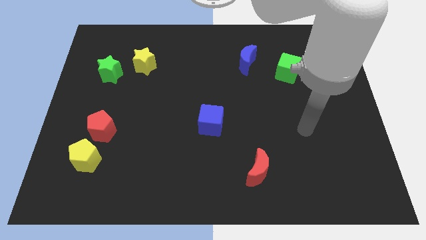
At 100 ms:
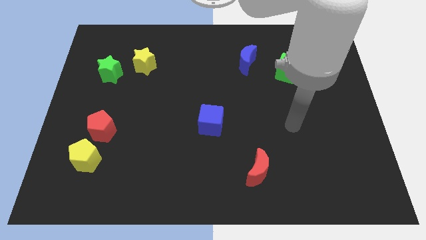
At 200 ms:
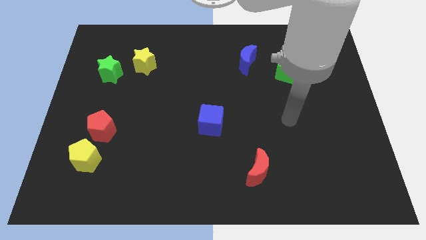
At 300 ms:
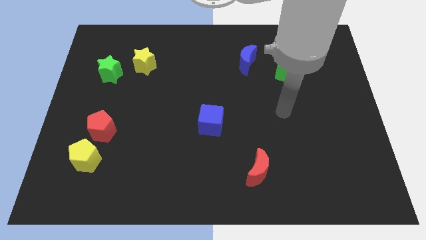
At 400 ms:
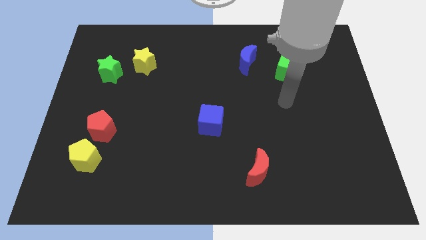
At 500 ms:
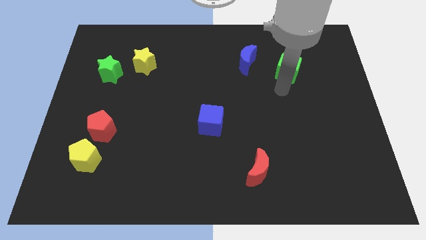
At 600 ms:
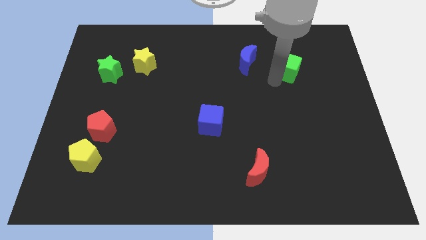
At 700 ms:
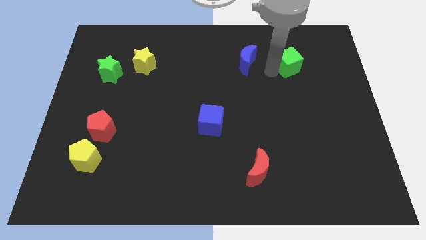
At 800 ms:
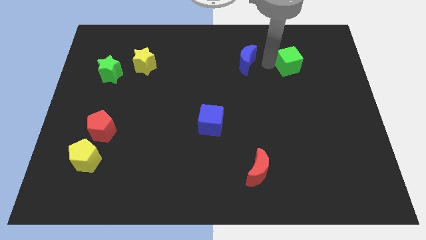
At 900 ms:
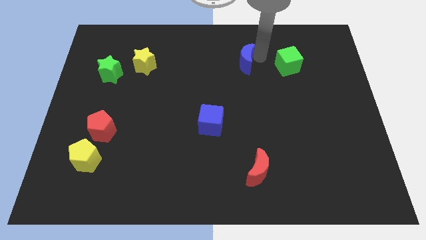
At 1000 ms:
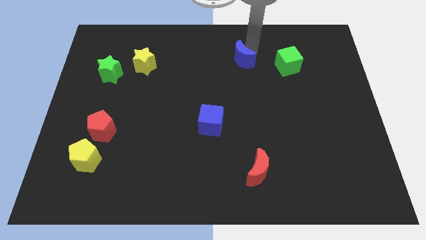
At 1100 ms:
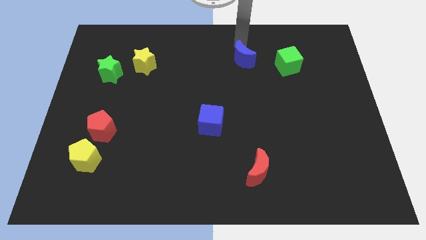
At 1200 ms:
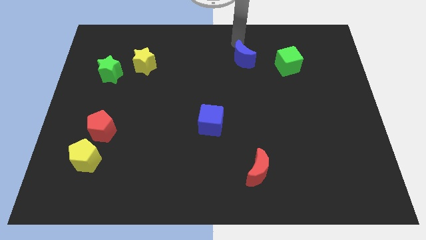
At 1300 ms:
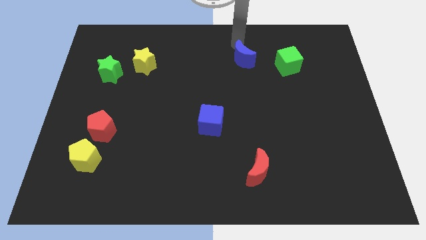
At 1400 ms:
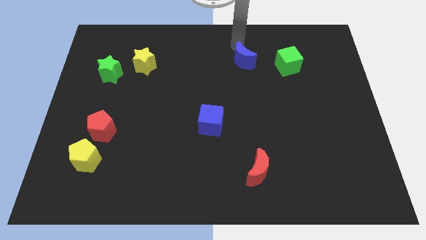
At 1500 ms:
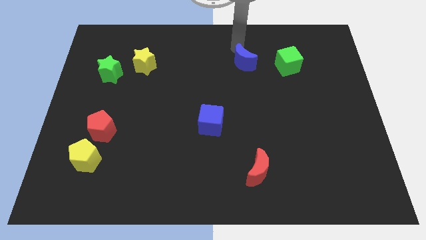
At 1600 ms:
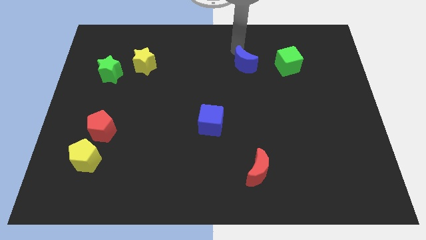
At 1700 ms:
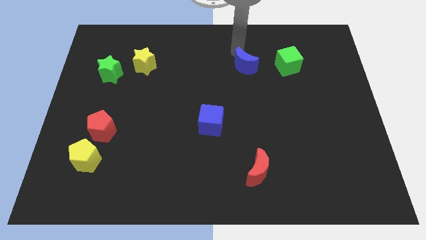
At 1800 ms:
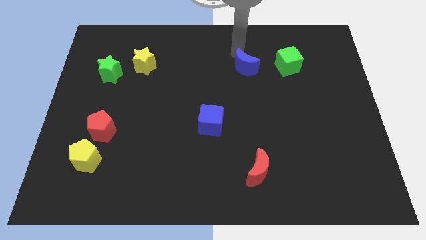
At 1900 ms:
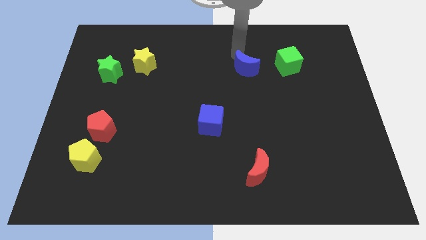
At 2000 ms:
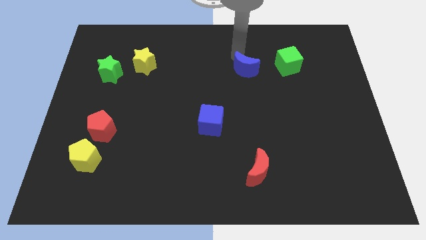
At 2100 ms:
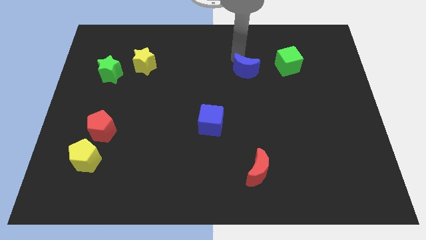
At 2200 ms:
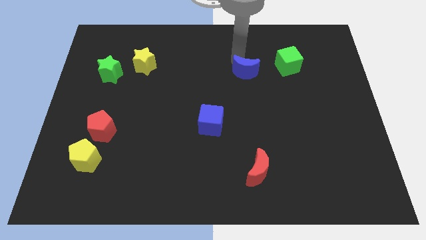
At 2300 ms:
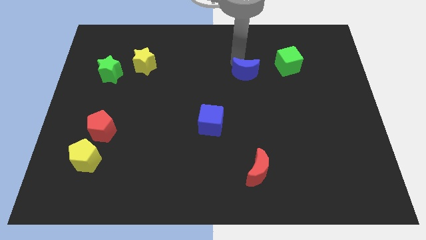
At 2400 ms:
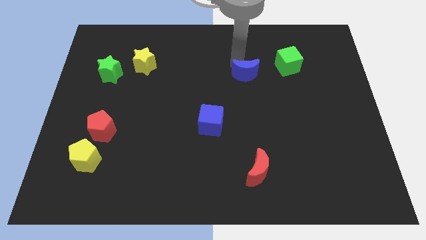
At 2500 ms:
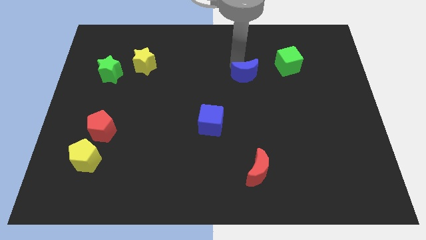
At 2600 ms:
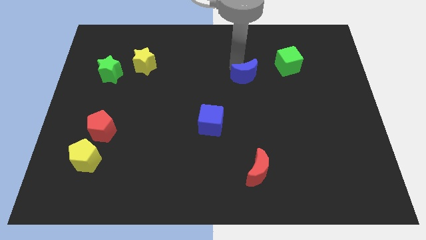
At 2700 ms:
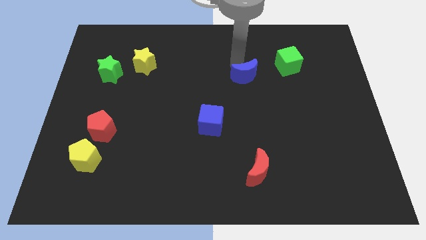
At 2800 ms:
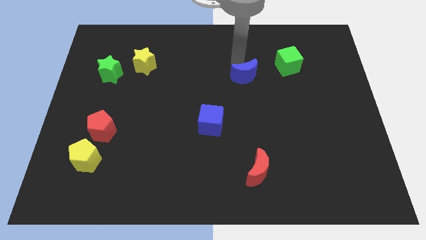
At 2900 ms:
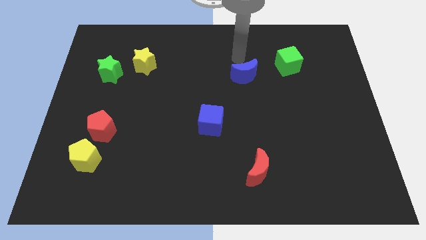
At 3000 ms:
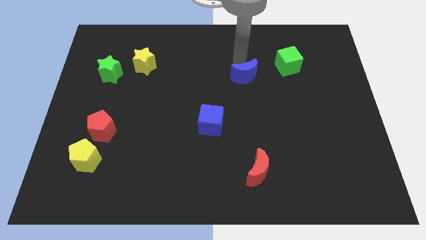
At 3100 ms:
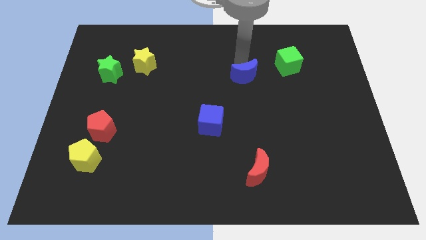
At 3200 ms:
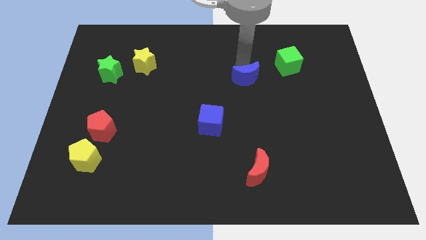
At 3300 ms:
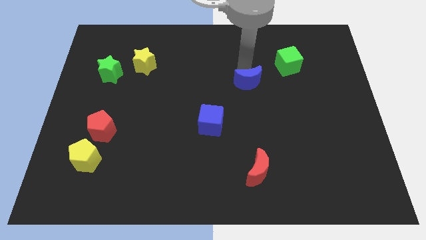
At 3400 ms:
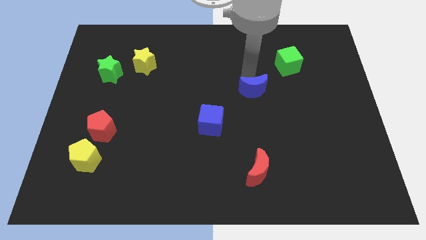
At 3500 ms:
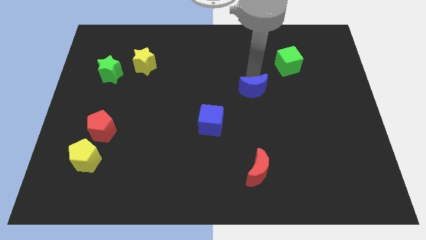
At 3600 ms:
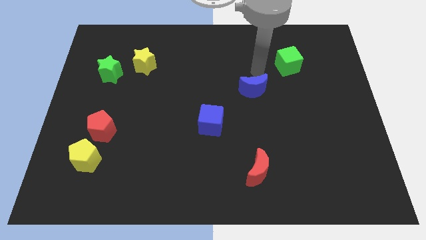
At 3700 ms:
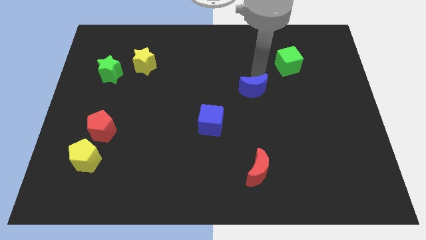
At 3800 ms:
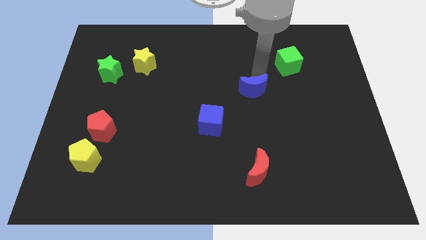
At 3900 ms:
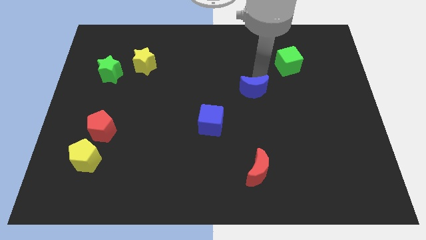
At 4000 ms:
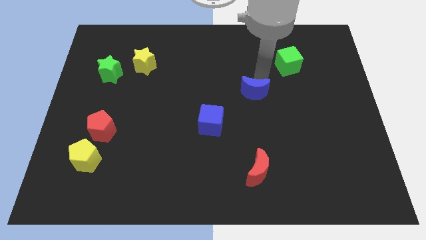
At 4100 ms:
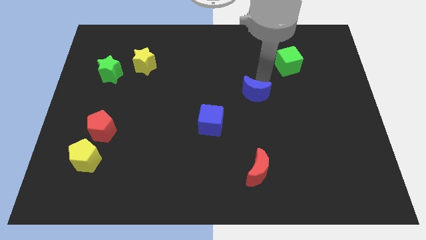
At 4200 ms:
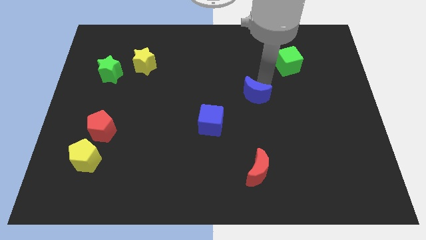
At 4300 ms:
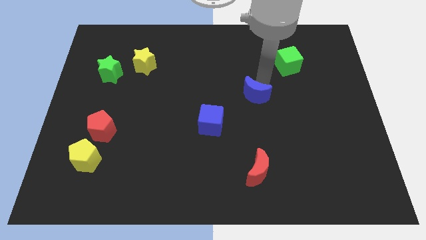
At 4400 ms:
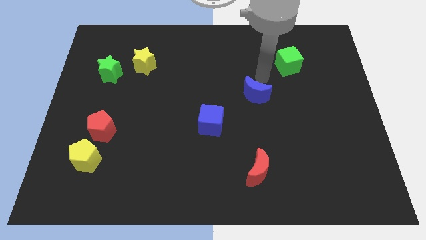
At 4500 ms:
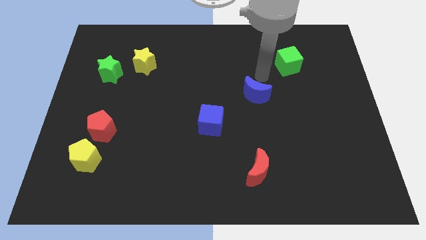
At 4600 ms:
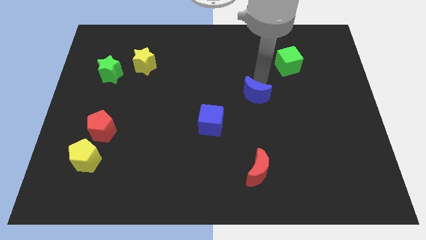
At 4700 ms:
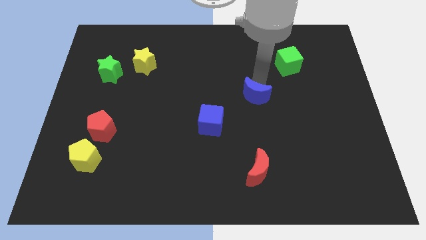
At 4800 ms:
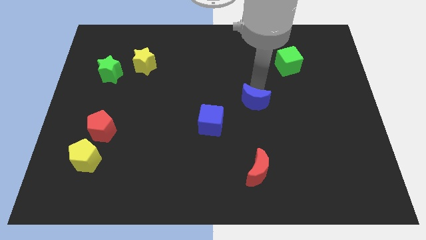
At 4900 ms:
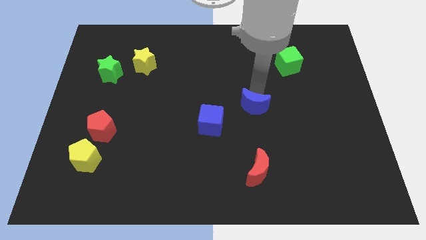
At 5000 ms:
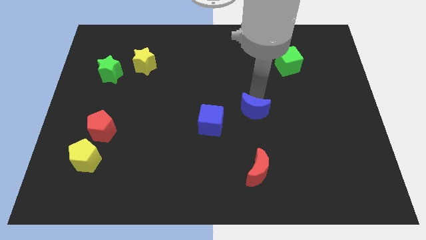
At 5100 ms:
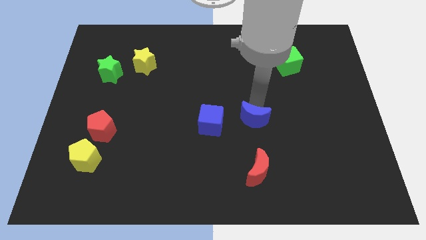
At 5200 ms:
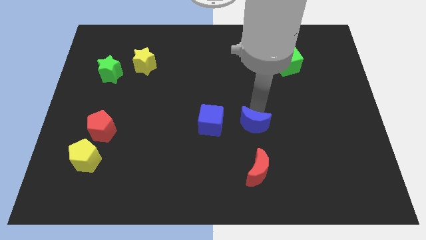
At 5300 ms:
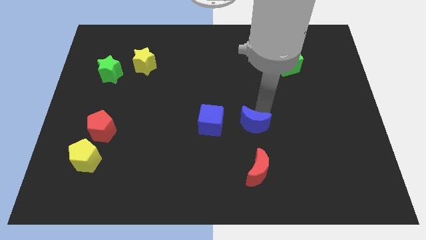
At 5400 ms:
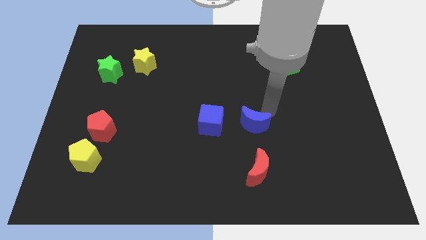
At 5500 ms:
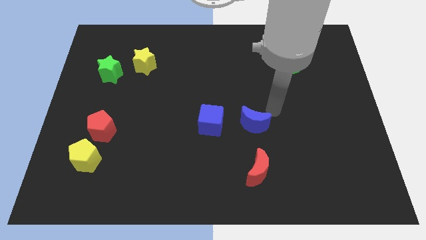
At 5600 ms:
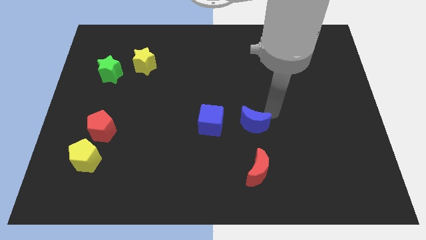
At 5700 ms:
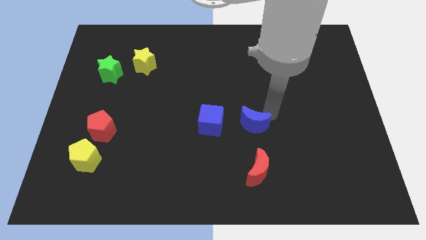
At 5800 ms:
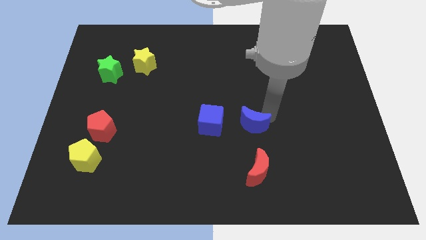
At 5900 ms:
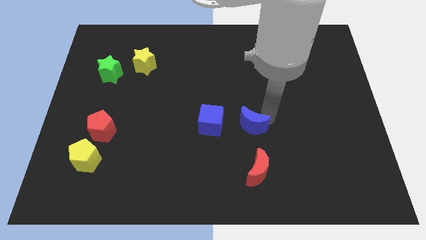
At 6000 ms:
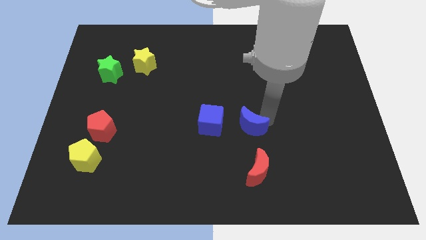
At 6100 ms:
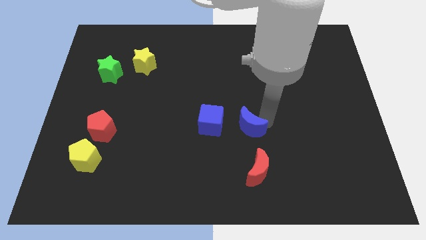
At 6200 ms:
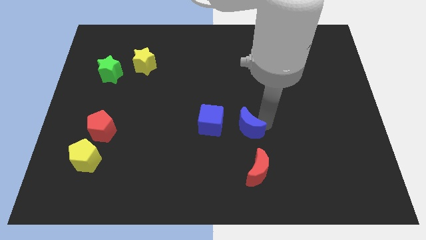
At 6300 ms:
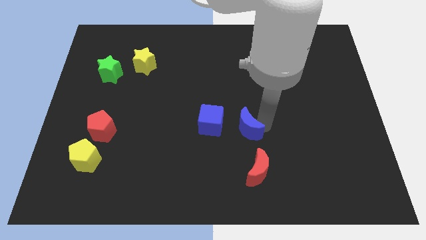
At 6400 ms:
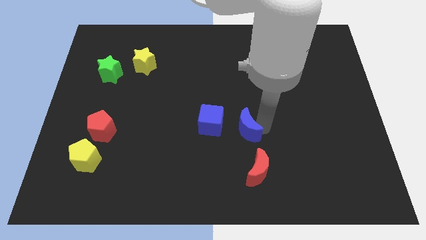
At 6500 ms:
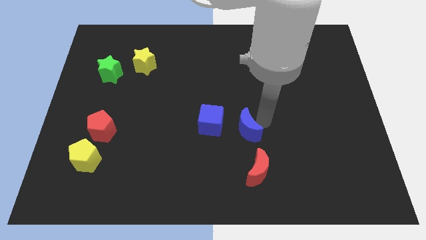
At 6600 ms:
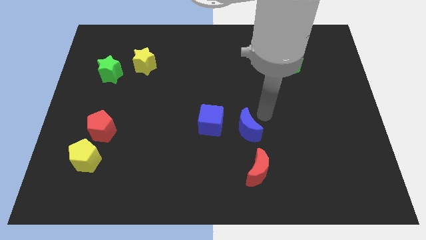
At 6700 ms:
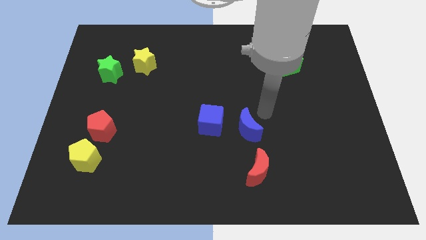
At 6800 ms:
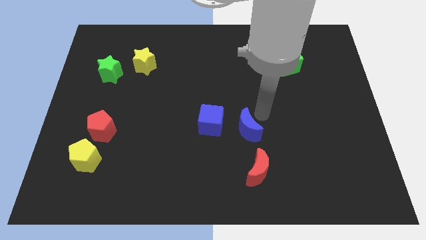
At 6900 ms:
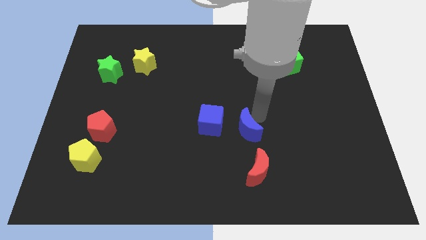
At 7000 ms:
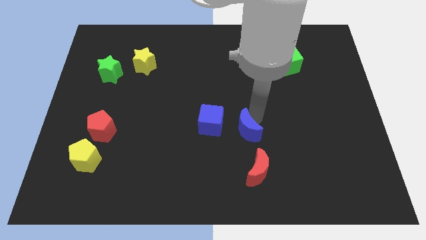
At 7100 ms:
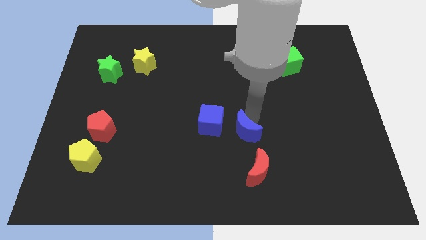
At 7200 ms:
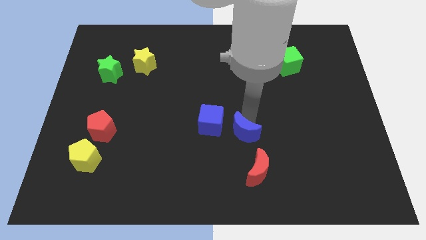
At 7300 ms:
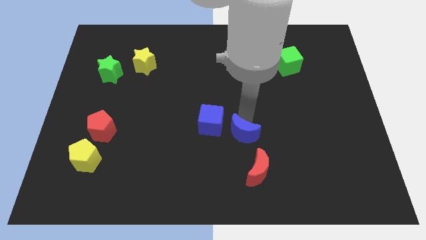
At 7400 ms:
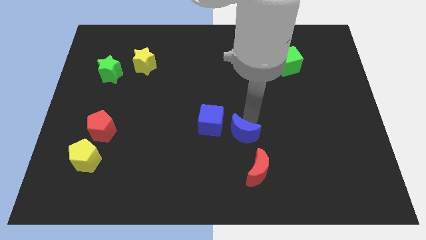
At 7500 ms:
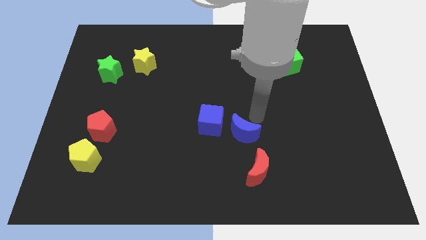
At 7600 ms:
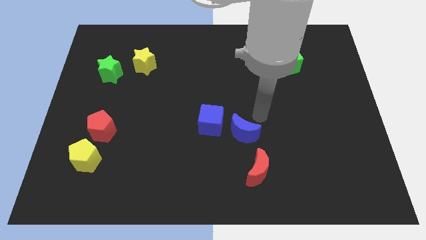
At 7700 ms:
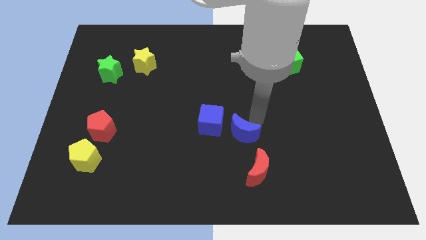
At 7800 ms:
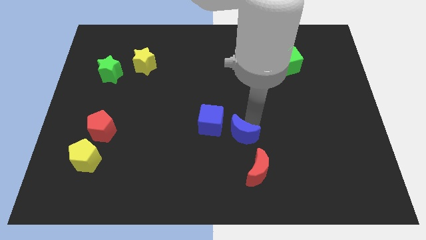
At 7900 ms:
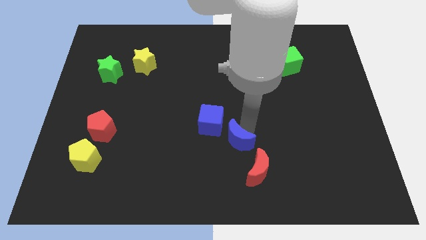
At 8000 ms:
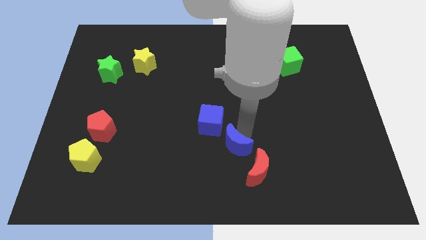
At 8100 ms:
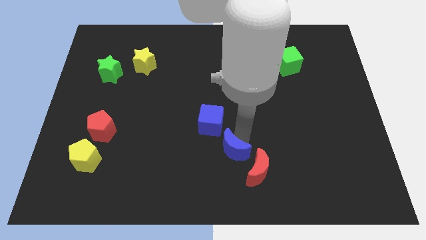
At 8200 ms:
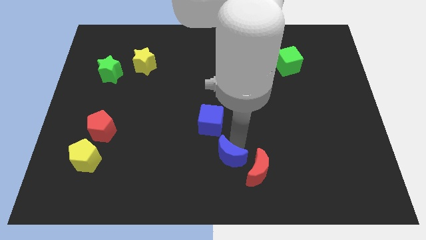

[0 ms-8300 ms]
push the blue moon to the bottom side
